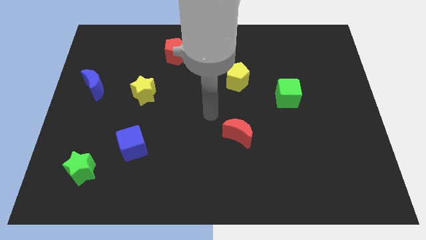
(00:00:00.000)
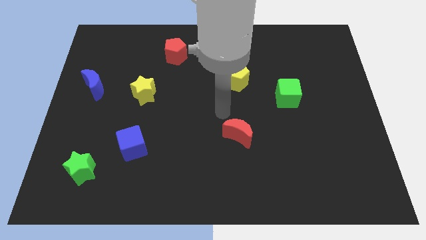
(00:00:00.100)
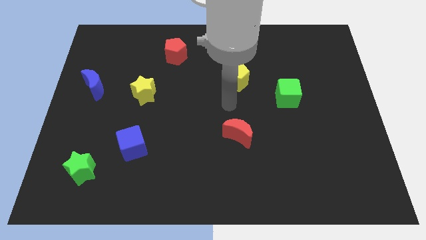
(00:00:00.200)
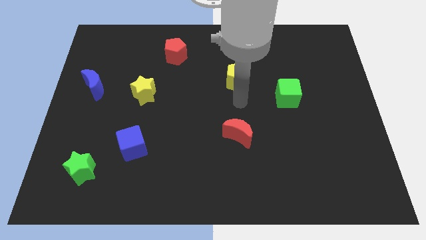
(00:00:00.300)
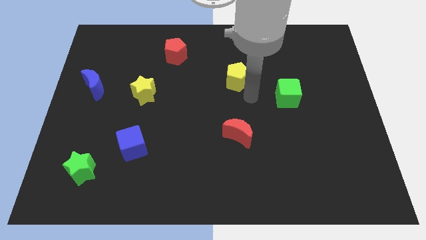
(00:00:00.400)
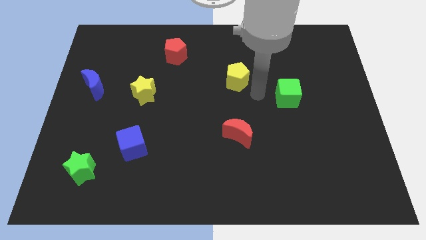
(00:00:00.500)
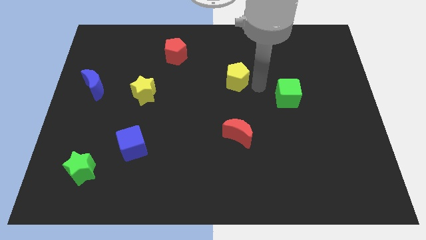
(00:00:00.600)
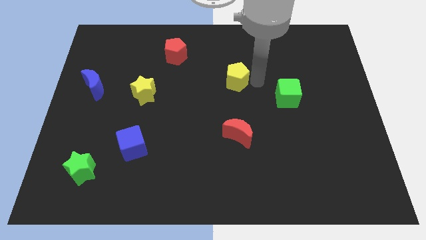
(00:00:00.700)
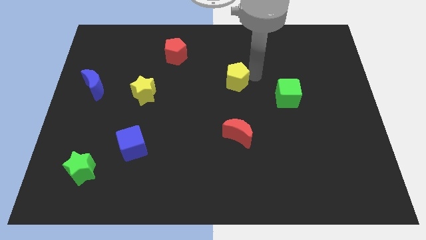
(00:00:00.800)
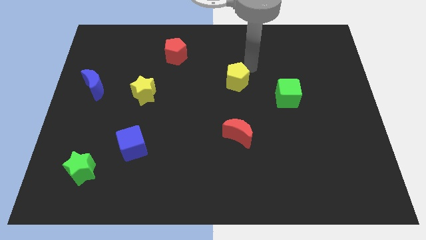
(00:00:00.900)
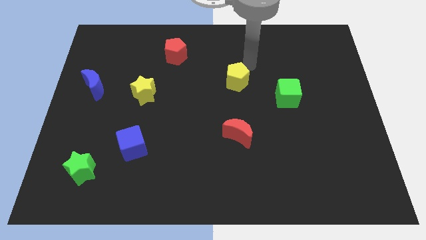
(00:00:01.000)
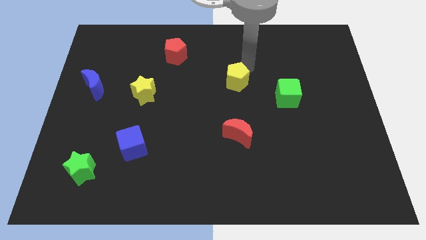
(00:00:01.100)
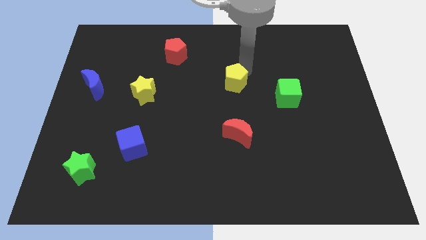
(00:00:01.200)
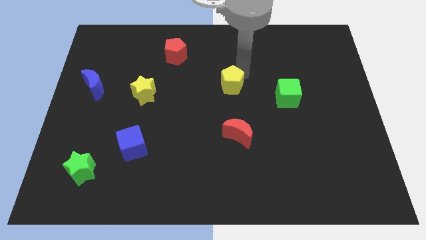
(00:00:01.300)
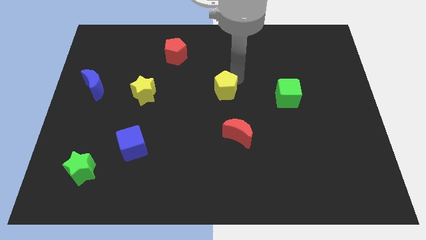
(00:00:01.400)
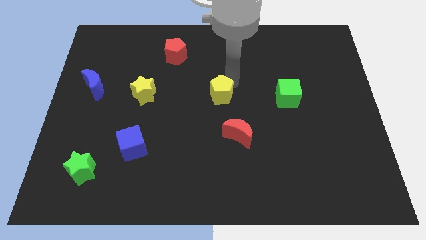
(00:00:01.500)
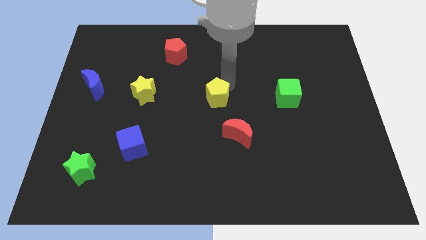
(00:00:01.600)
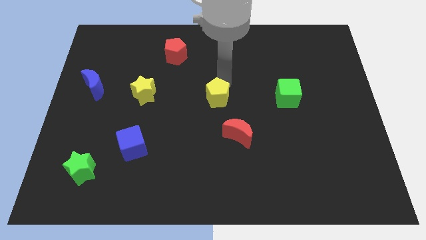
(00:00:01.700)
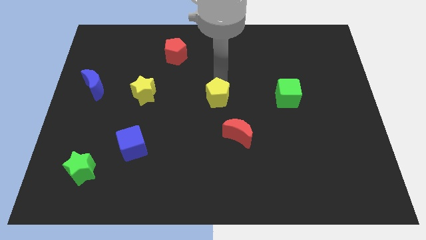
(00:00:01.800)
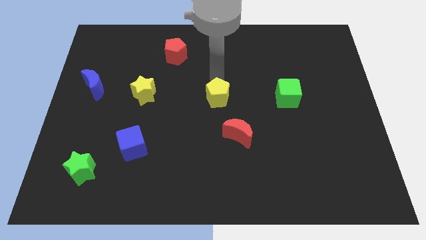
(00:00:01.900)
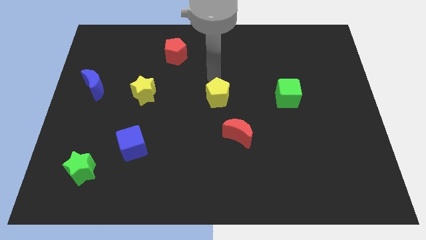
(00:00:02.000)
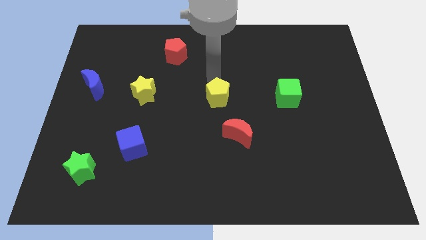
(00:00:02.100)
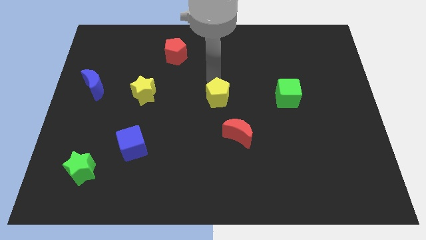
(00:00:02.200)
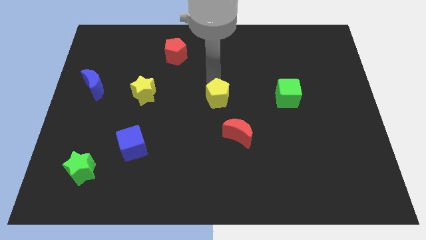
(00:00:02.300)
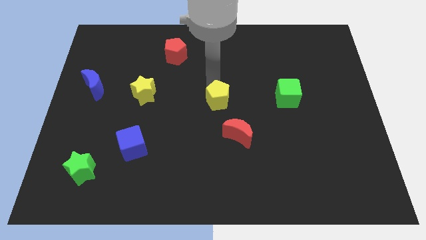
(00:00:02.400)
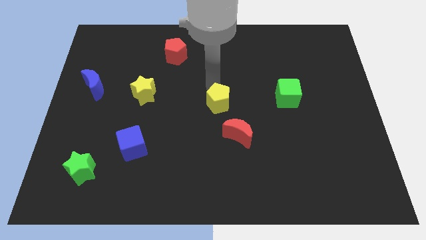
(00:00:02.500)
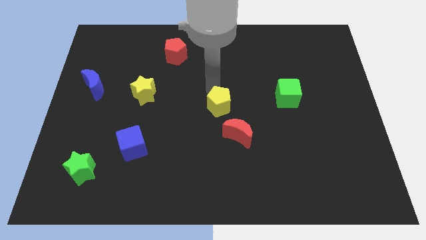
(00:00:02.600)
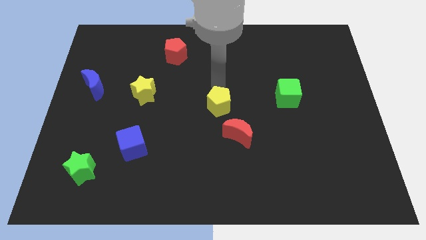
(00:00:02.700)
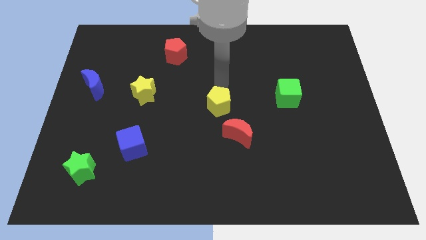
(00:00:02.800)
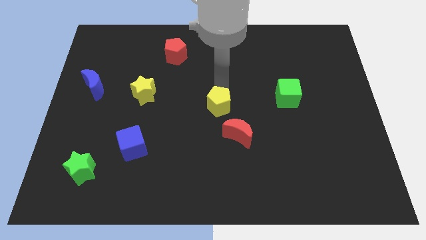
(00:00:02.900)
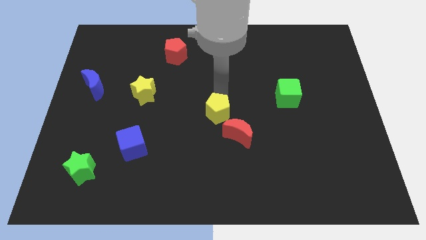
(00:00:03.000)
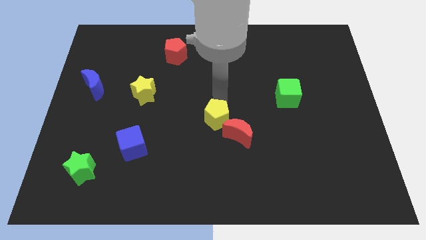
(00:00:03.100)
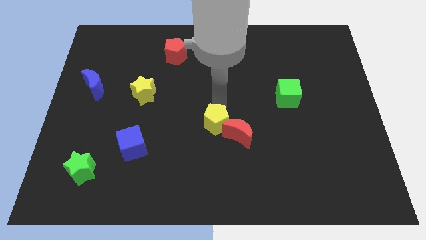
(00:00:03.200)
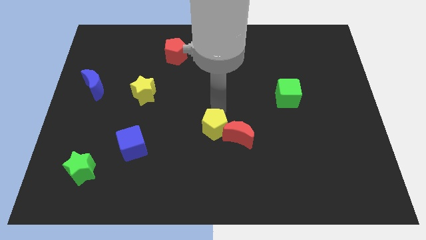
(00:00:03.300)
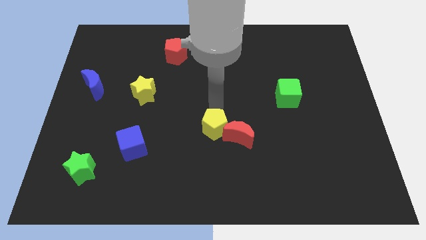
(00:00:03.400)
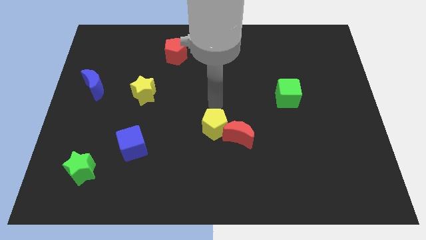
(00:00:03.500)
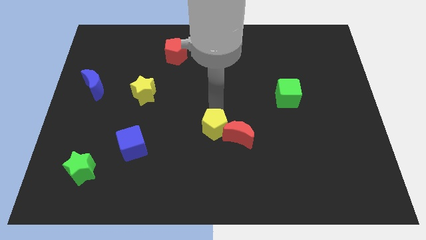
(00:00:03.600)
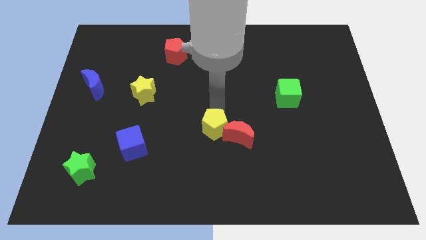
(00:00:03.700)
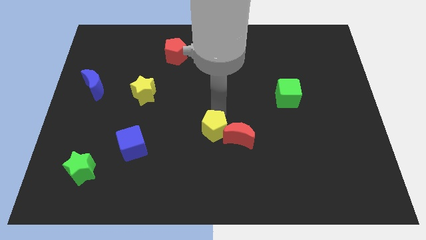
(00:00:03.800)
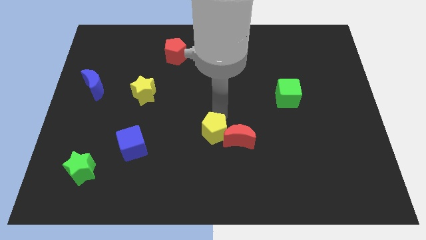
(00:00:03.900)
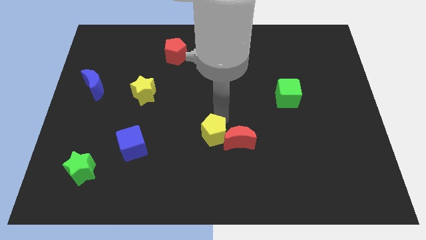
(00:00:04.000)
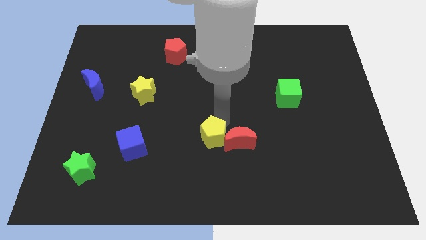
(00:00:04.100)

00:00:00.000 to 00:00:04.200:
slide the yellow pentagon to the bottom left of the red moon

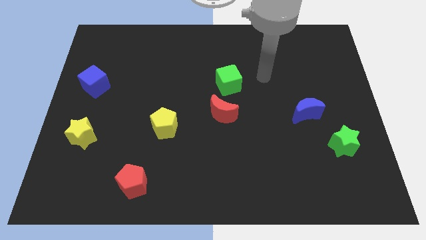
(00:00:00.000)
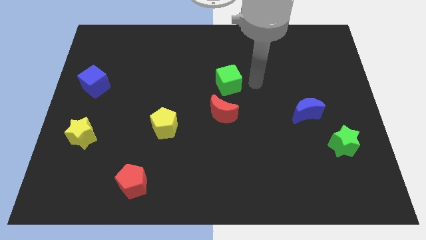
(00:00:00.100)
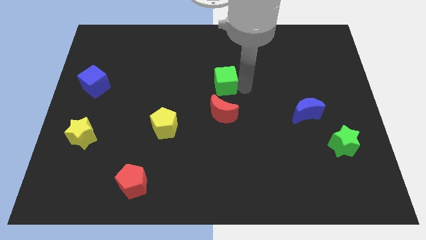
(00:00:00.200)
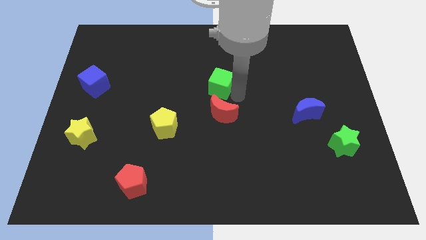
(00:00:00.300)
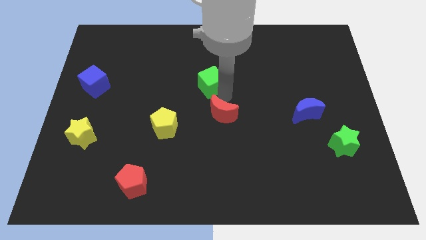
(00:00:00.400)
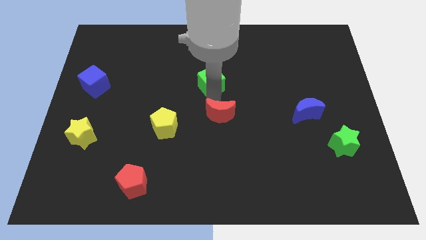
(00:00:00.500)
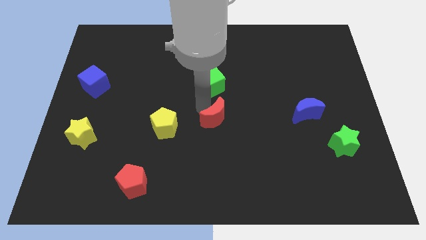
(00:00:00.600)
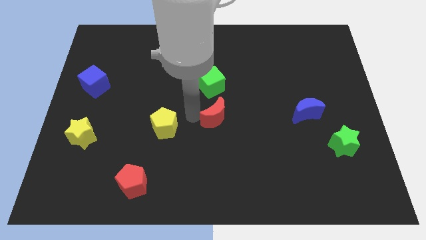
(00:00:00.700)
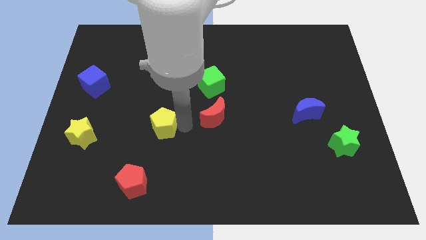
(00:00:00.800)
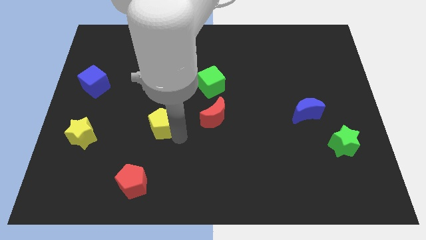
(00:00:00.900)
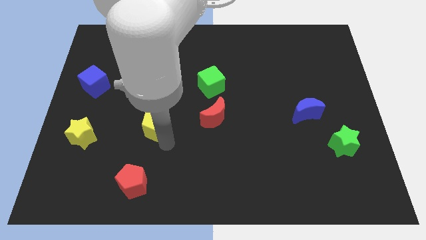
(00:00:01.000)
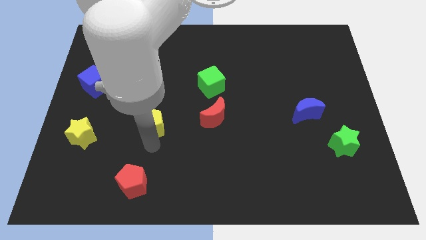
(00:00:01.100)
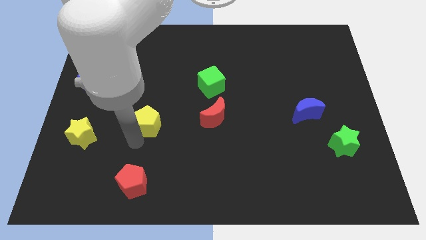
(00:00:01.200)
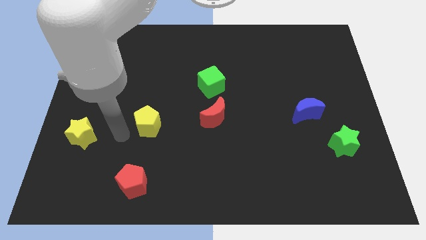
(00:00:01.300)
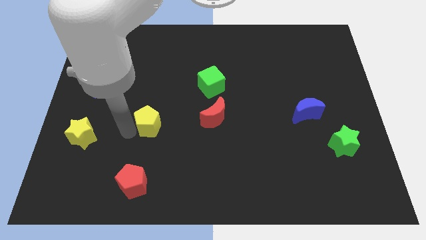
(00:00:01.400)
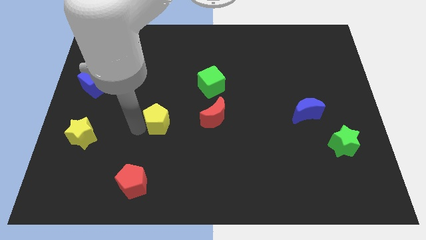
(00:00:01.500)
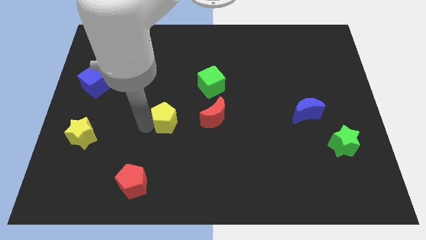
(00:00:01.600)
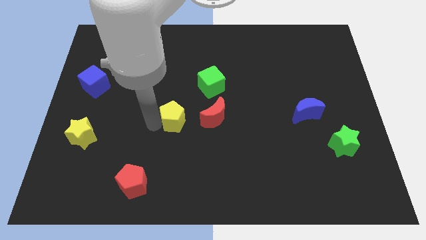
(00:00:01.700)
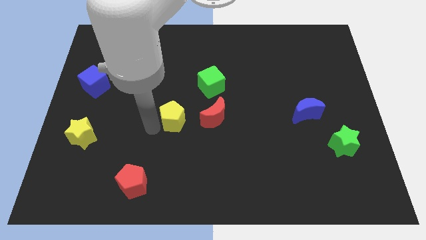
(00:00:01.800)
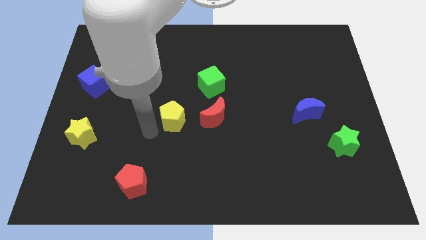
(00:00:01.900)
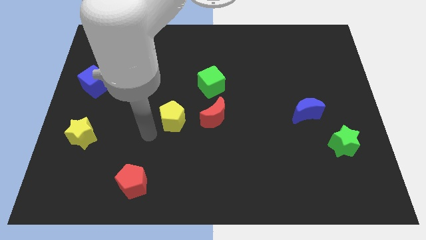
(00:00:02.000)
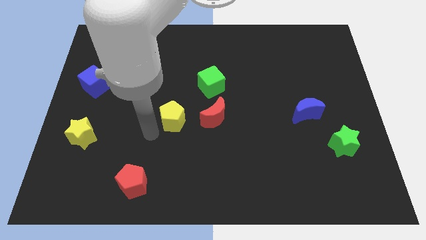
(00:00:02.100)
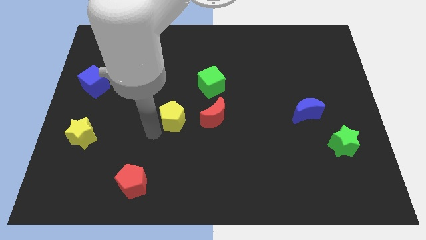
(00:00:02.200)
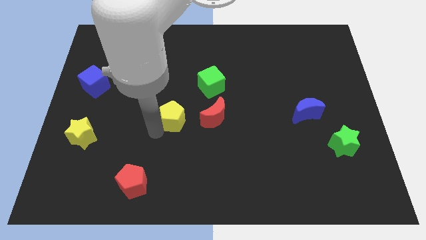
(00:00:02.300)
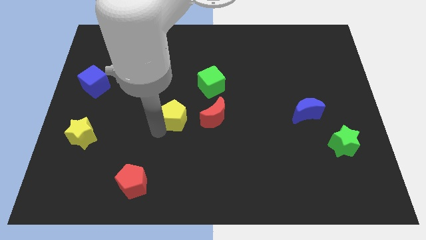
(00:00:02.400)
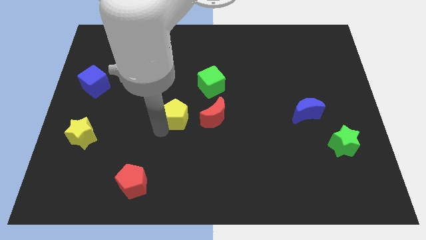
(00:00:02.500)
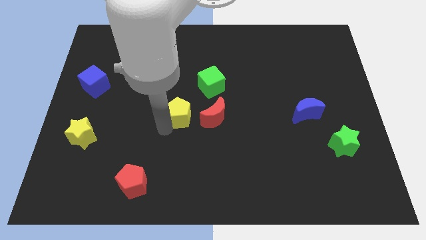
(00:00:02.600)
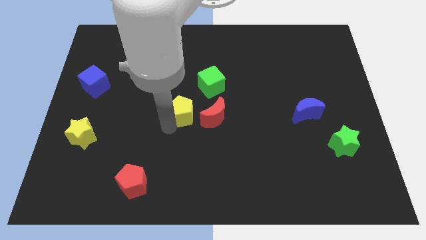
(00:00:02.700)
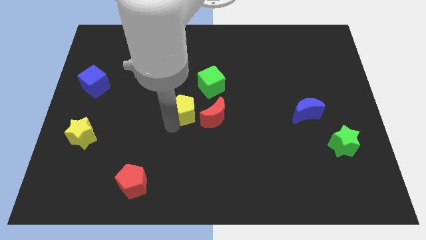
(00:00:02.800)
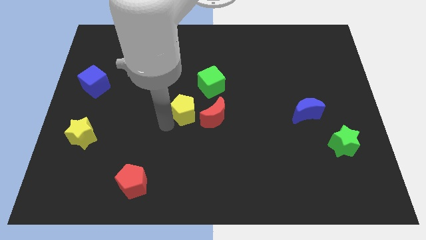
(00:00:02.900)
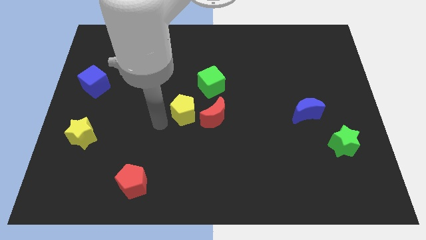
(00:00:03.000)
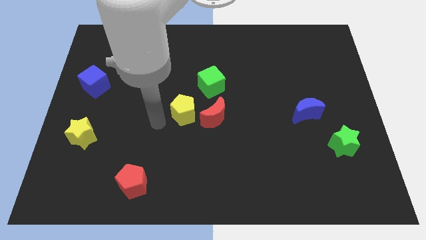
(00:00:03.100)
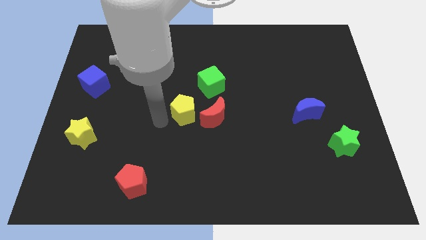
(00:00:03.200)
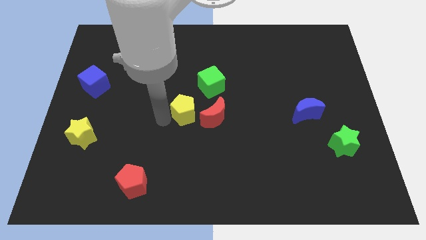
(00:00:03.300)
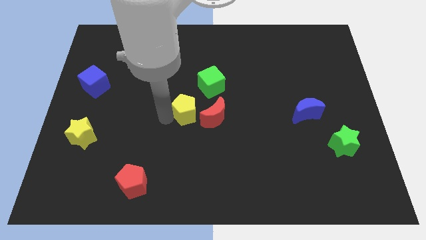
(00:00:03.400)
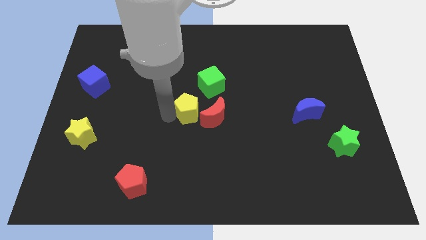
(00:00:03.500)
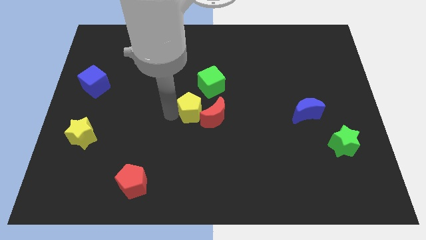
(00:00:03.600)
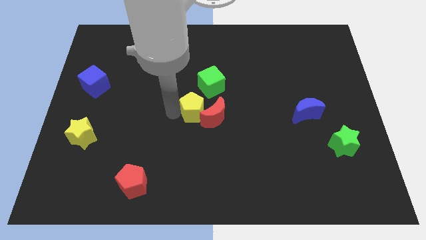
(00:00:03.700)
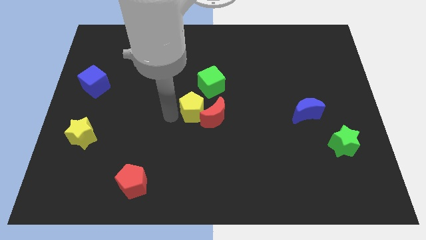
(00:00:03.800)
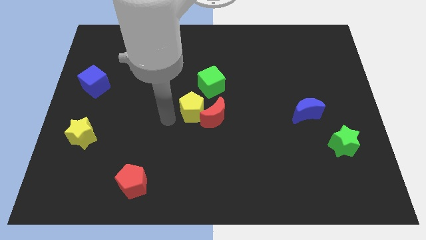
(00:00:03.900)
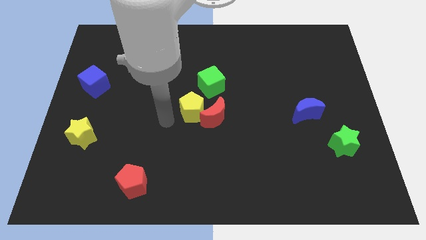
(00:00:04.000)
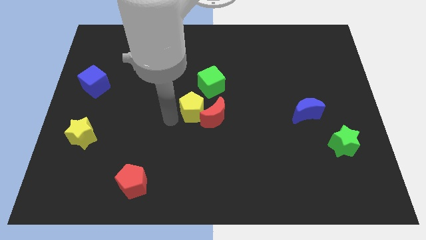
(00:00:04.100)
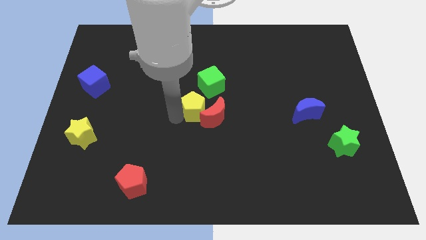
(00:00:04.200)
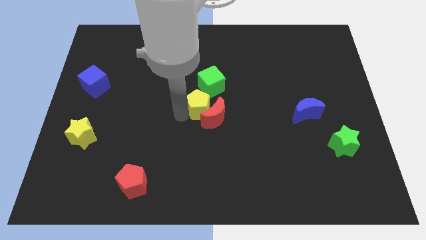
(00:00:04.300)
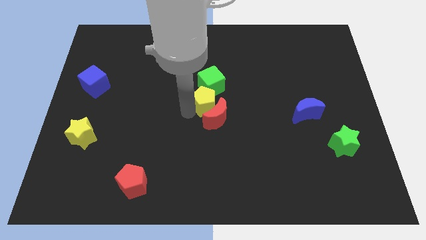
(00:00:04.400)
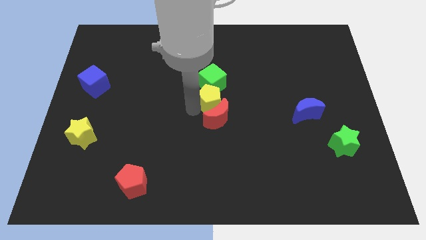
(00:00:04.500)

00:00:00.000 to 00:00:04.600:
slide the yellow pentagon to the bottom right of the green cube
